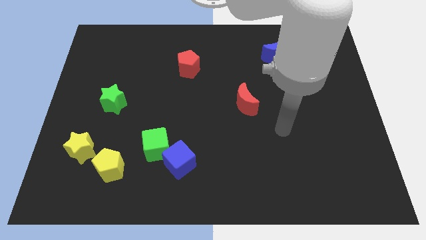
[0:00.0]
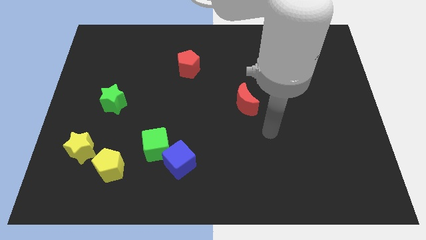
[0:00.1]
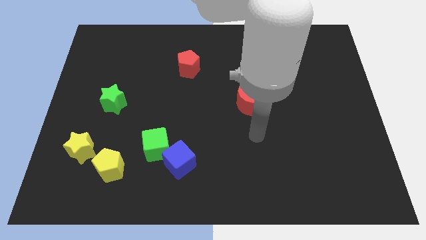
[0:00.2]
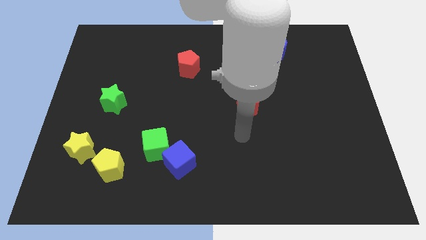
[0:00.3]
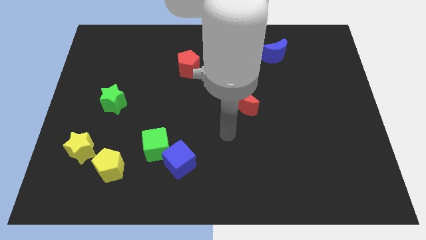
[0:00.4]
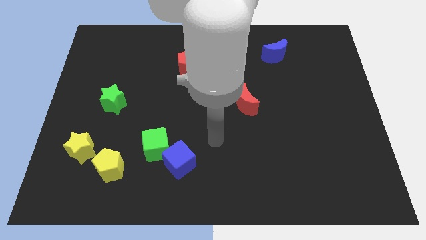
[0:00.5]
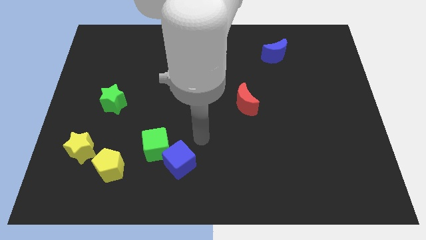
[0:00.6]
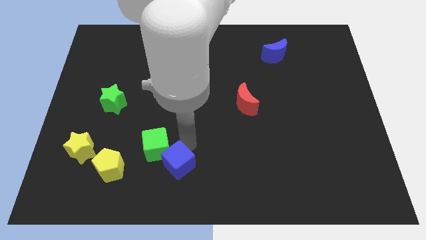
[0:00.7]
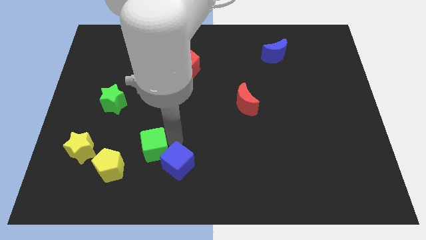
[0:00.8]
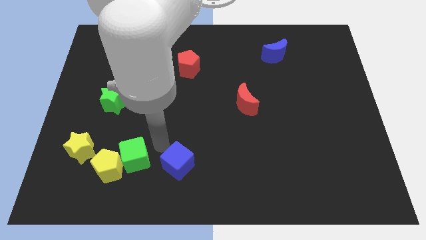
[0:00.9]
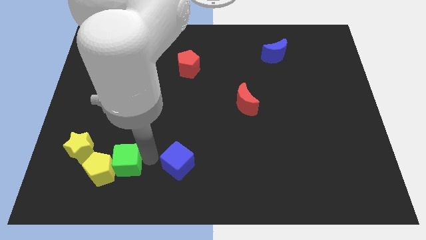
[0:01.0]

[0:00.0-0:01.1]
pull the blue cube apart from the green cube

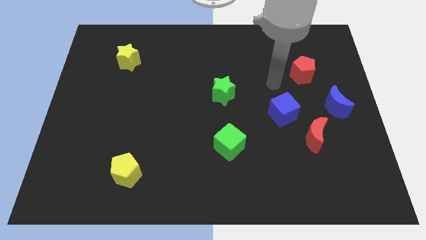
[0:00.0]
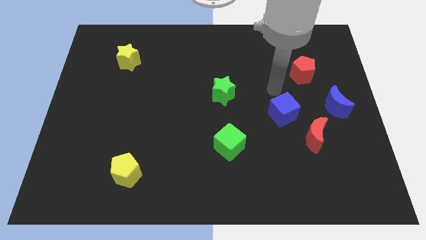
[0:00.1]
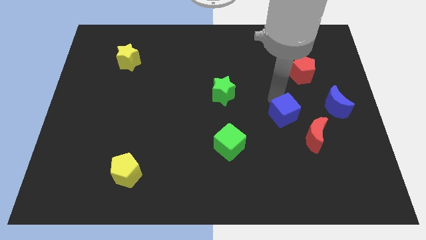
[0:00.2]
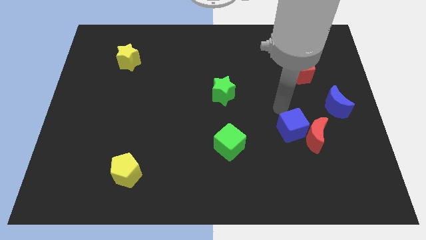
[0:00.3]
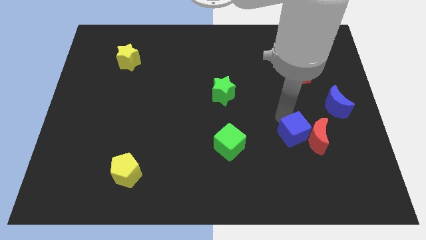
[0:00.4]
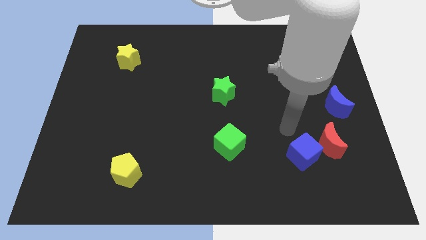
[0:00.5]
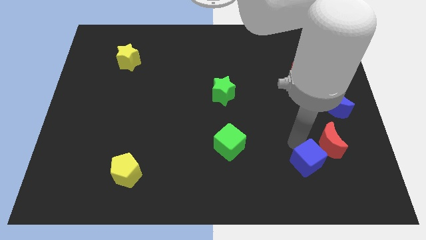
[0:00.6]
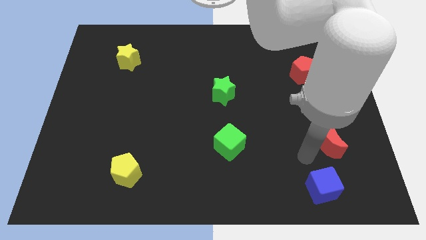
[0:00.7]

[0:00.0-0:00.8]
pull the red moon apart from the blue cube

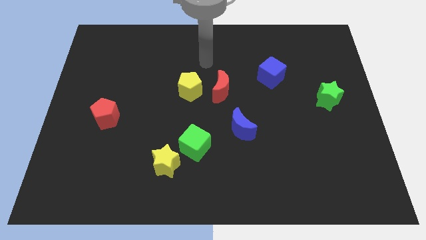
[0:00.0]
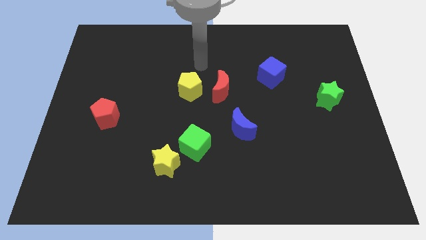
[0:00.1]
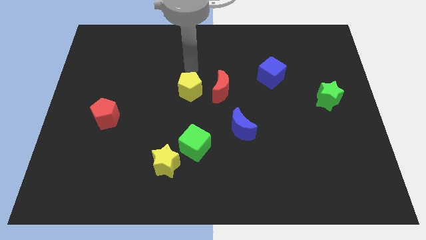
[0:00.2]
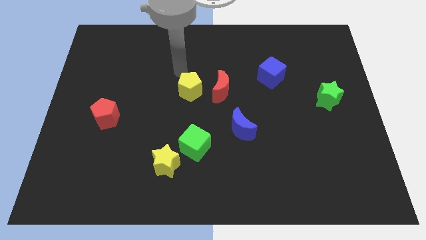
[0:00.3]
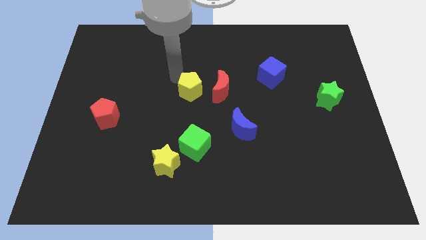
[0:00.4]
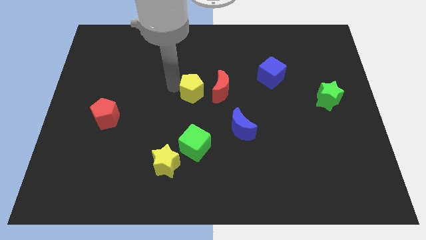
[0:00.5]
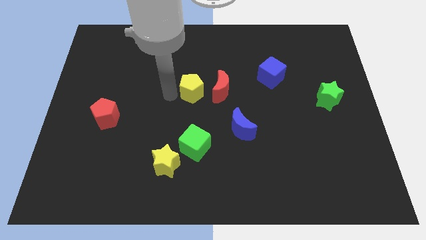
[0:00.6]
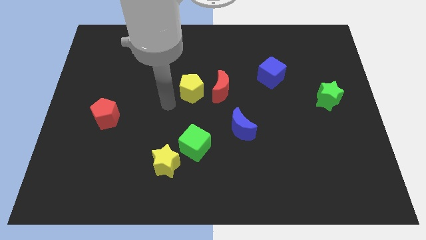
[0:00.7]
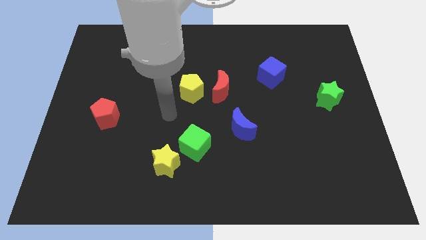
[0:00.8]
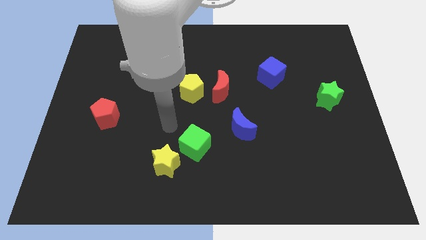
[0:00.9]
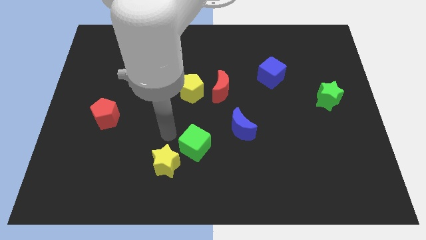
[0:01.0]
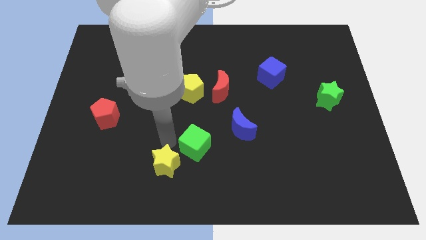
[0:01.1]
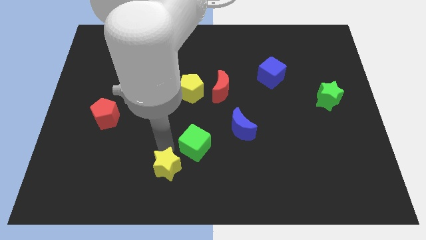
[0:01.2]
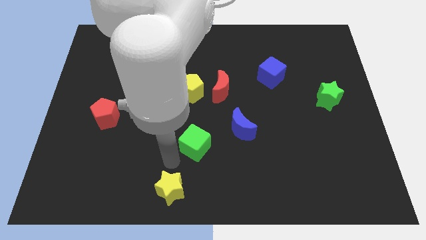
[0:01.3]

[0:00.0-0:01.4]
move the green cube away from the yellow star

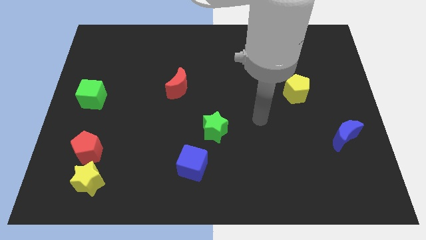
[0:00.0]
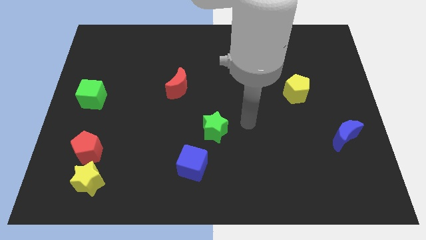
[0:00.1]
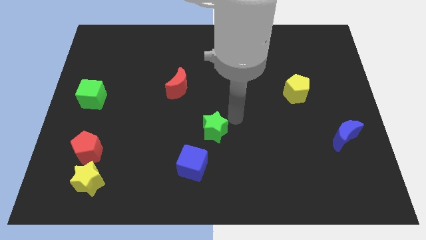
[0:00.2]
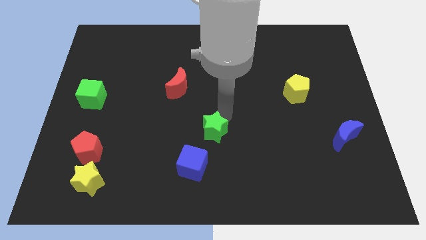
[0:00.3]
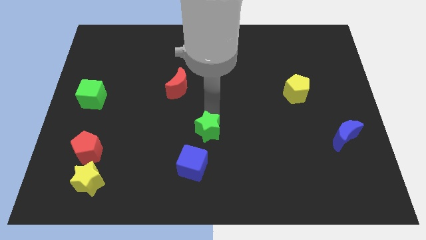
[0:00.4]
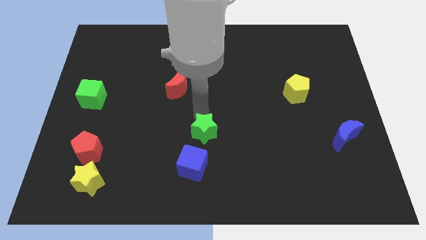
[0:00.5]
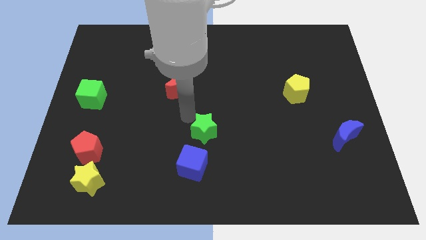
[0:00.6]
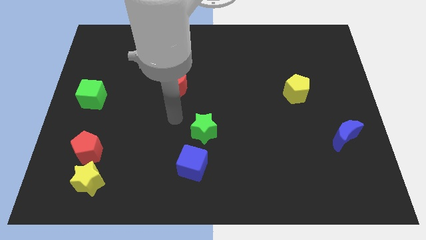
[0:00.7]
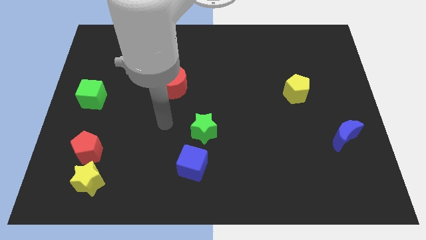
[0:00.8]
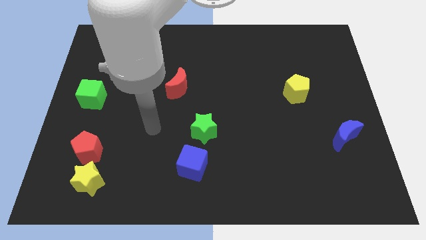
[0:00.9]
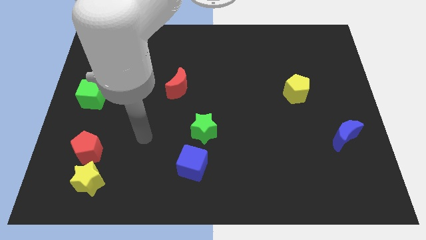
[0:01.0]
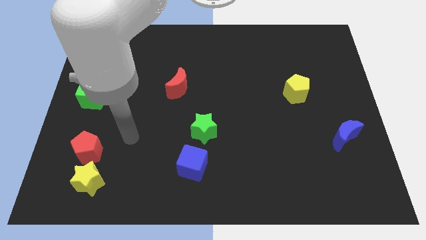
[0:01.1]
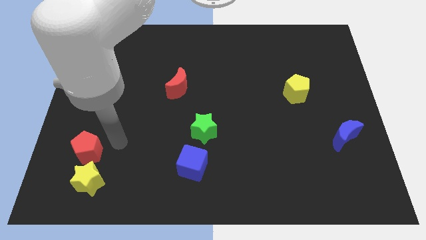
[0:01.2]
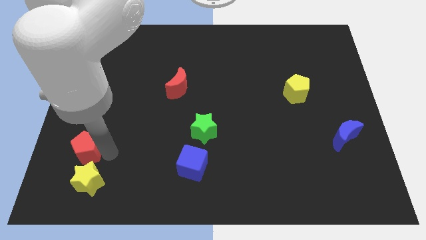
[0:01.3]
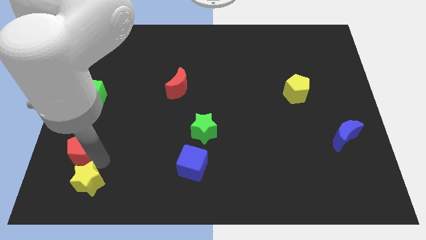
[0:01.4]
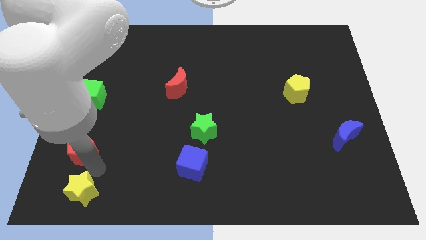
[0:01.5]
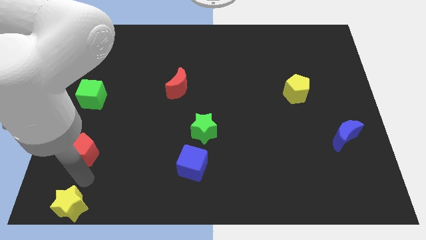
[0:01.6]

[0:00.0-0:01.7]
separate the red pentagon from the yellow star

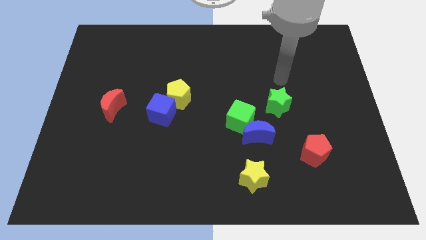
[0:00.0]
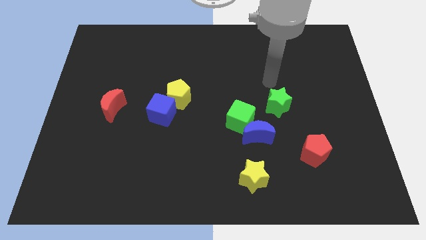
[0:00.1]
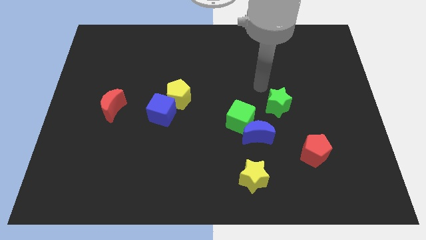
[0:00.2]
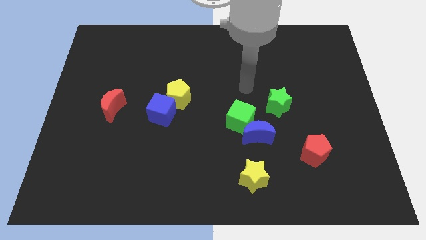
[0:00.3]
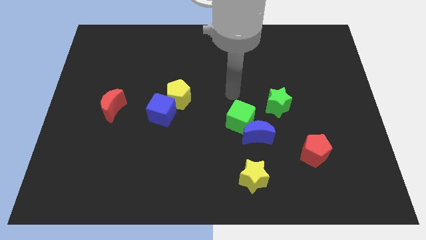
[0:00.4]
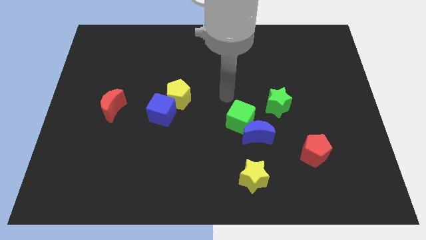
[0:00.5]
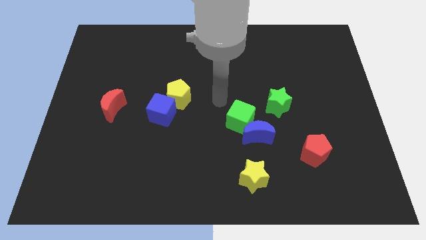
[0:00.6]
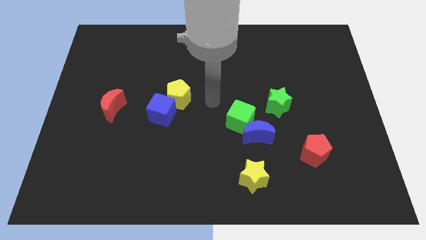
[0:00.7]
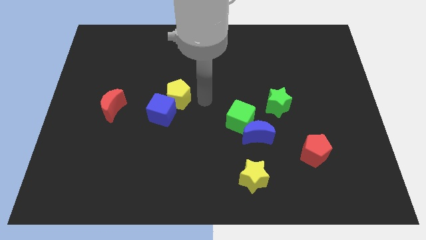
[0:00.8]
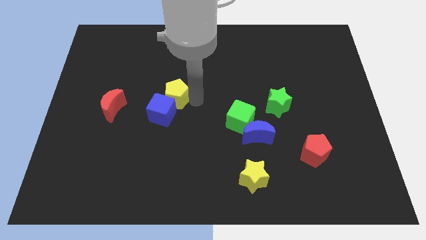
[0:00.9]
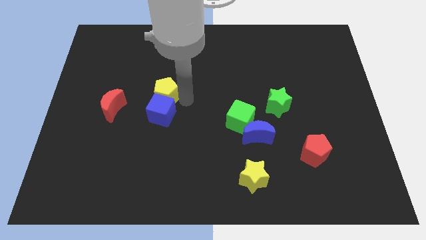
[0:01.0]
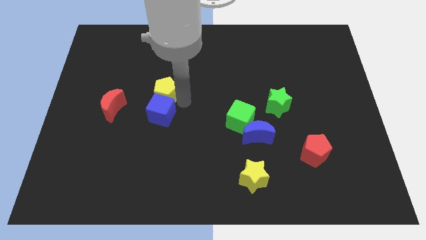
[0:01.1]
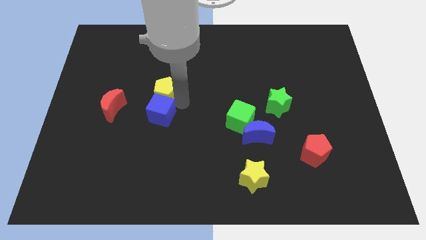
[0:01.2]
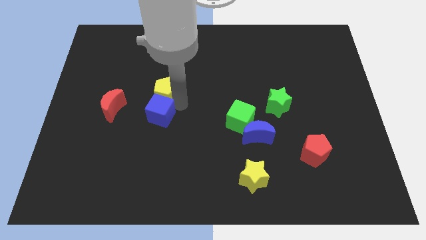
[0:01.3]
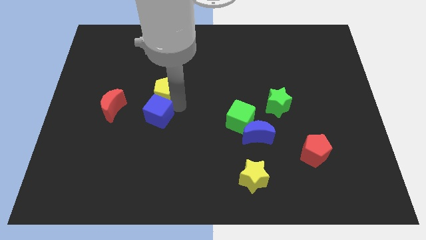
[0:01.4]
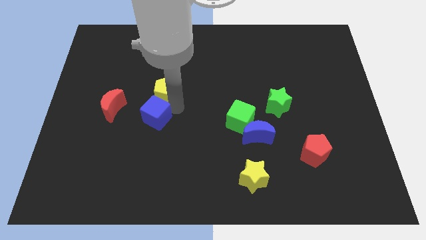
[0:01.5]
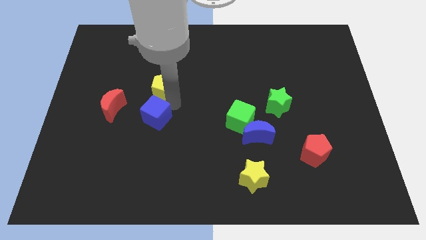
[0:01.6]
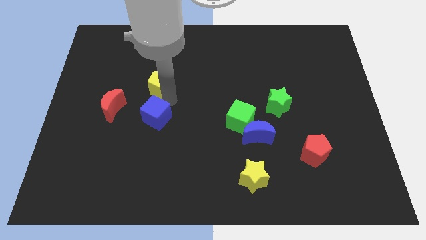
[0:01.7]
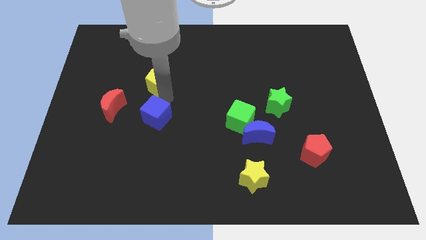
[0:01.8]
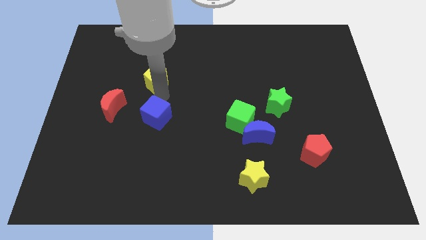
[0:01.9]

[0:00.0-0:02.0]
separate the blue cube from the yellow pentagon

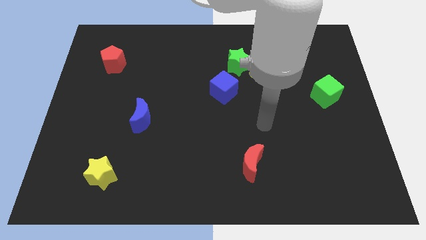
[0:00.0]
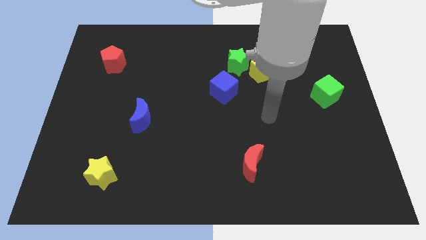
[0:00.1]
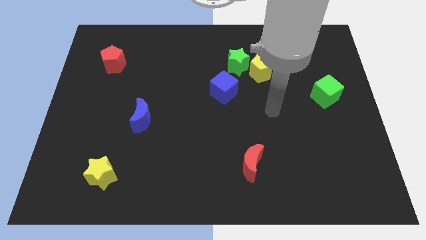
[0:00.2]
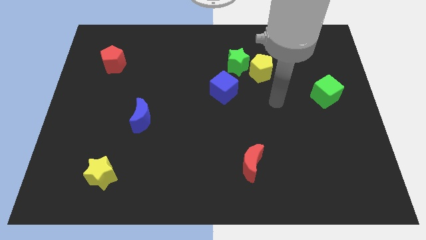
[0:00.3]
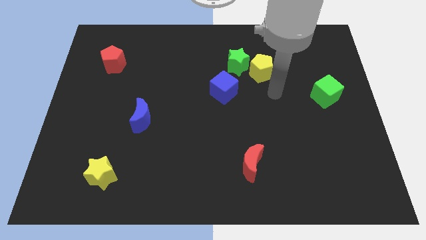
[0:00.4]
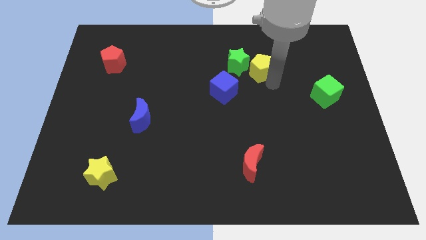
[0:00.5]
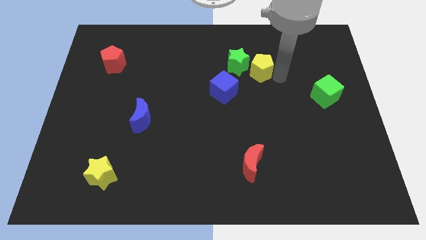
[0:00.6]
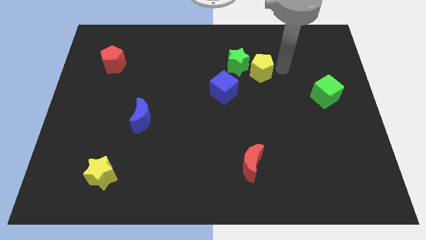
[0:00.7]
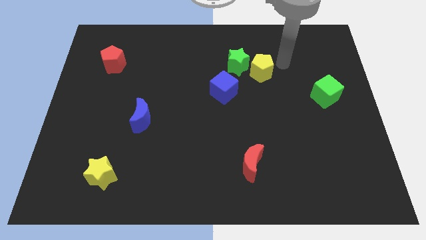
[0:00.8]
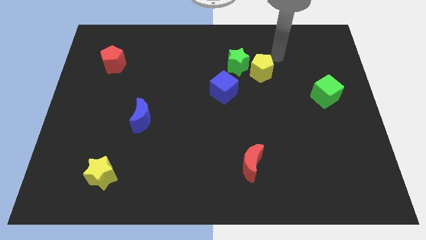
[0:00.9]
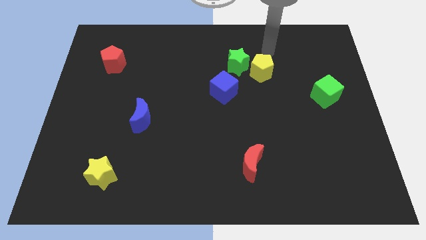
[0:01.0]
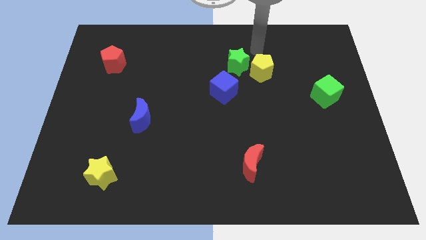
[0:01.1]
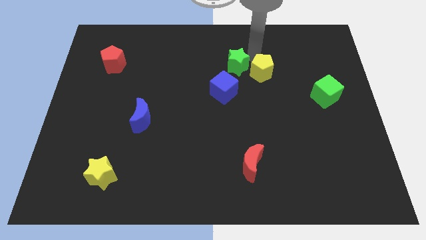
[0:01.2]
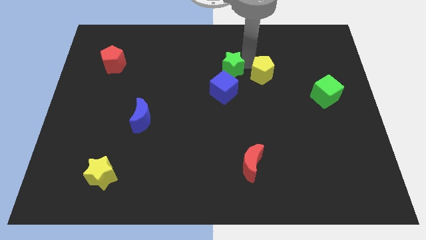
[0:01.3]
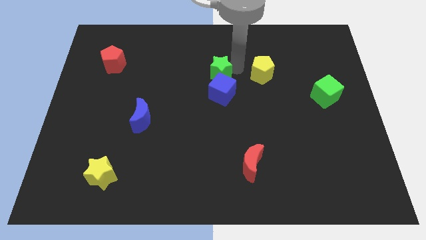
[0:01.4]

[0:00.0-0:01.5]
move the yellow pentagon away from the green star

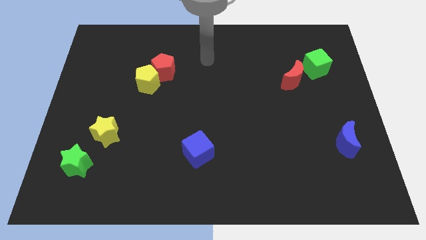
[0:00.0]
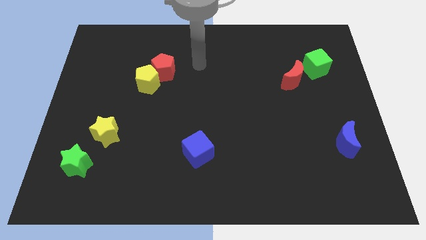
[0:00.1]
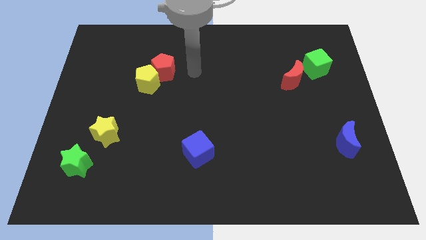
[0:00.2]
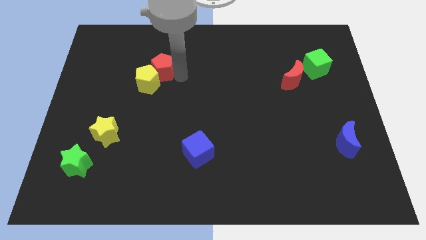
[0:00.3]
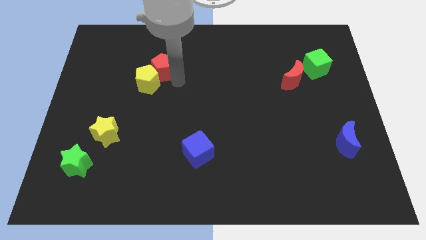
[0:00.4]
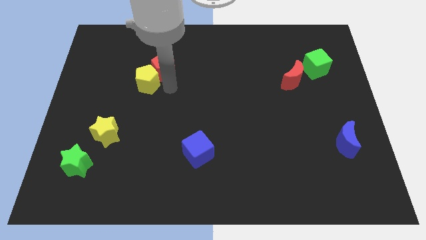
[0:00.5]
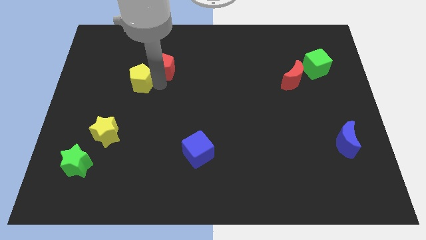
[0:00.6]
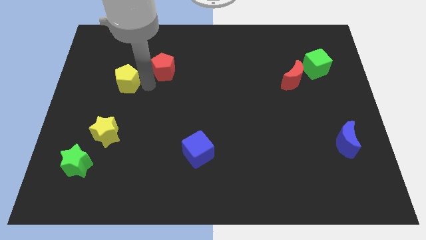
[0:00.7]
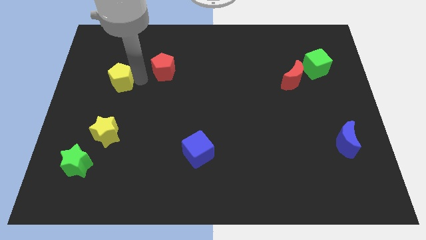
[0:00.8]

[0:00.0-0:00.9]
move the red pentagon away from the yellow pentagon
